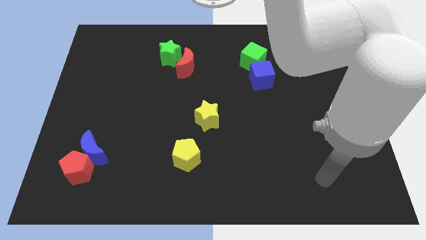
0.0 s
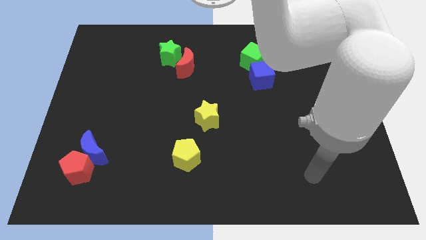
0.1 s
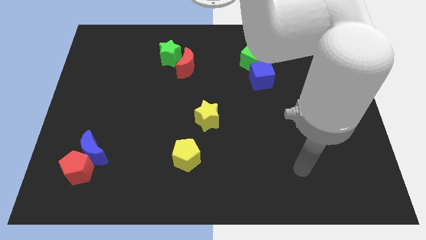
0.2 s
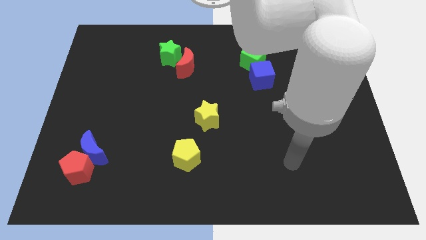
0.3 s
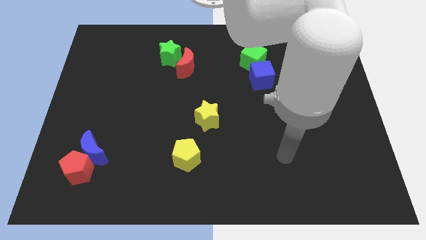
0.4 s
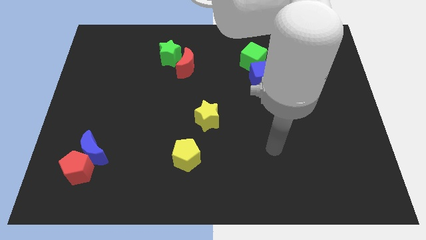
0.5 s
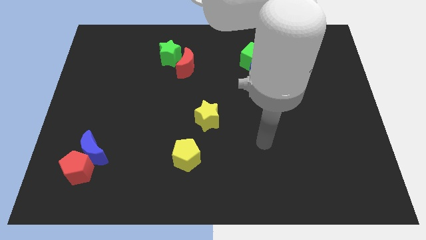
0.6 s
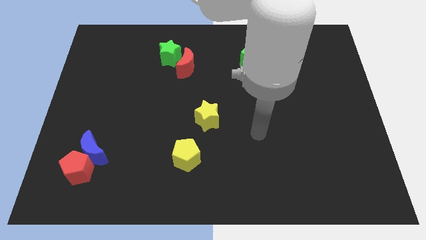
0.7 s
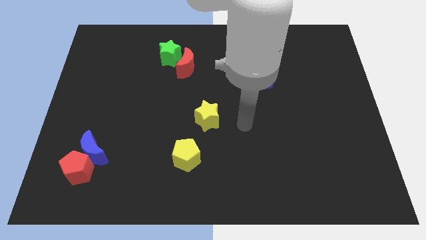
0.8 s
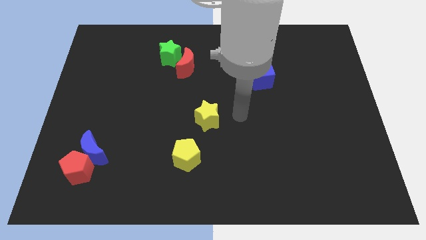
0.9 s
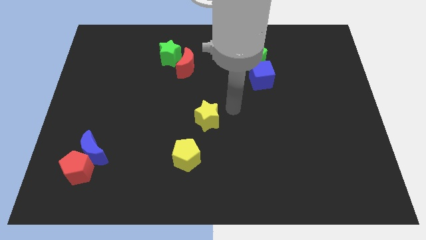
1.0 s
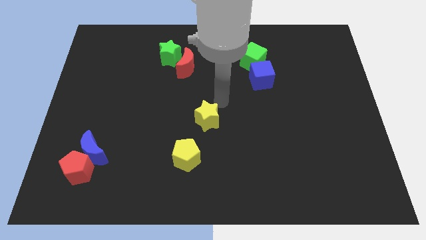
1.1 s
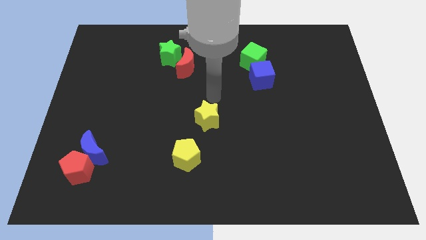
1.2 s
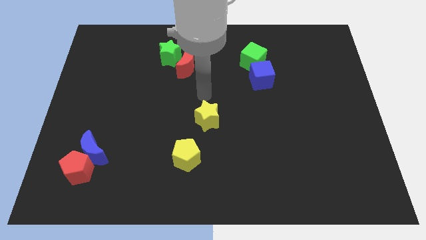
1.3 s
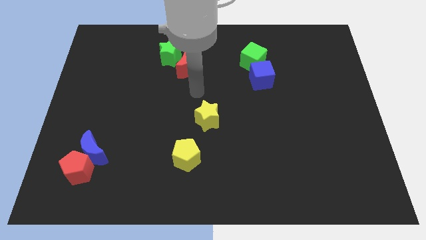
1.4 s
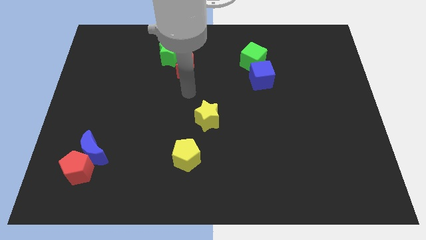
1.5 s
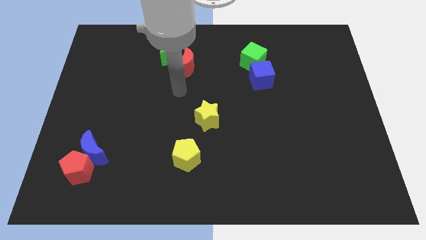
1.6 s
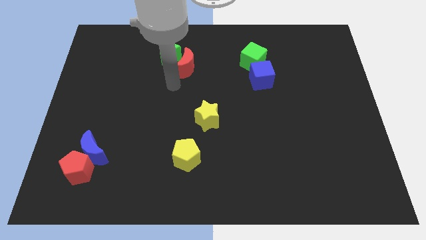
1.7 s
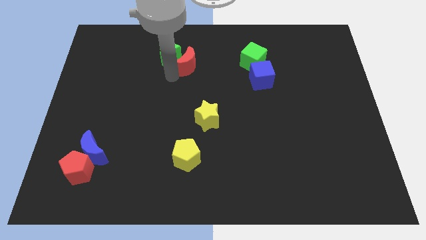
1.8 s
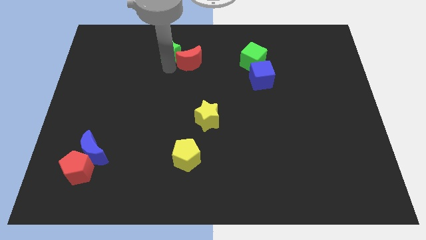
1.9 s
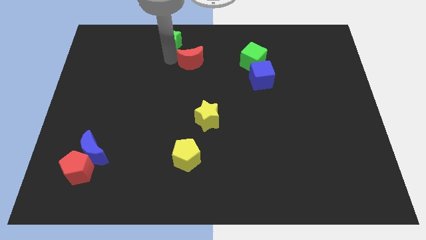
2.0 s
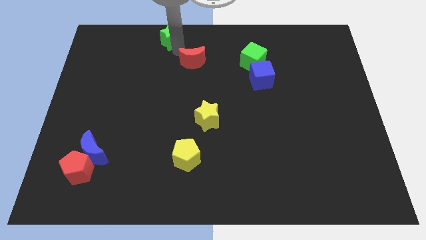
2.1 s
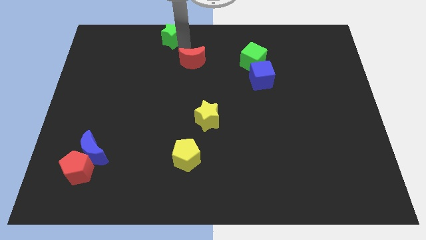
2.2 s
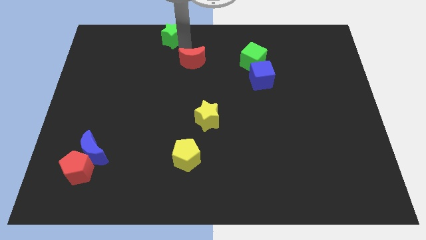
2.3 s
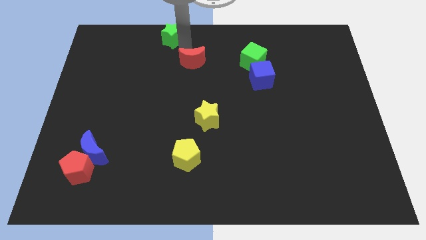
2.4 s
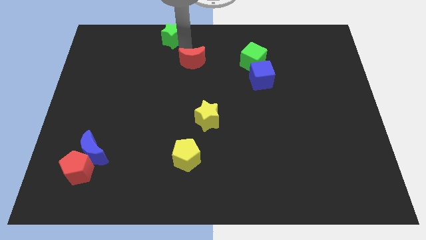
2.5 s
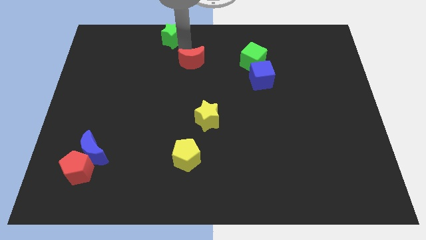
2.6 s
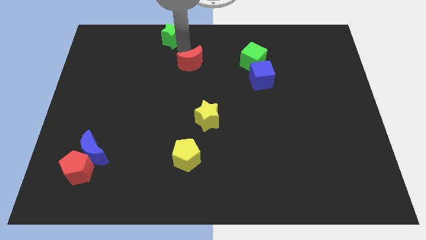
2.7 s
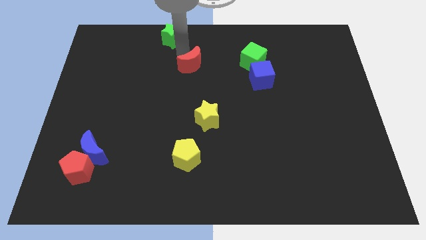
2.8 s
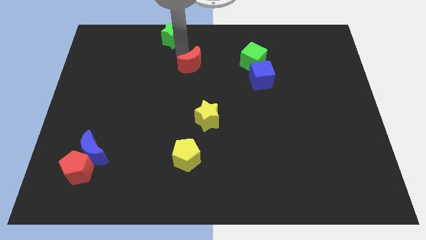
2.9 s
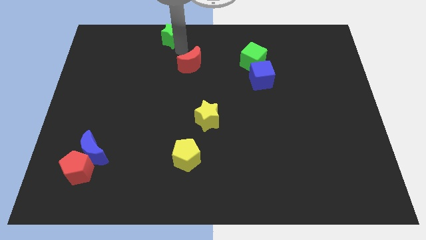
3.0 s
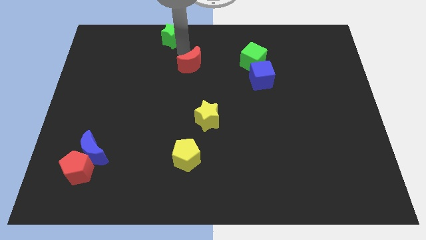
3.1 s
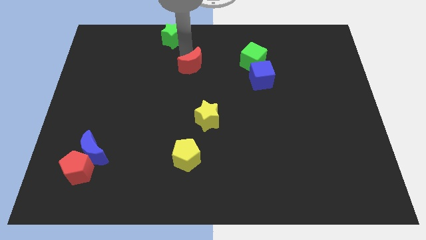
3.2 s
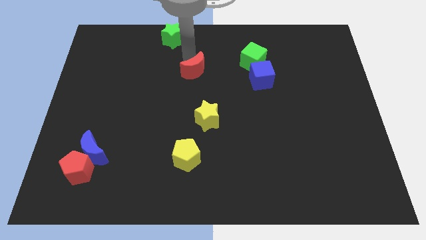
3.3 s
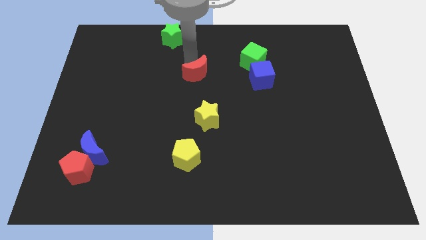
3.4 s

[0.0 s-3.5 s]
slide the red moon just left of the blue cube

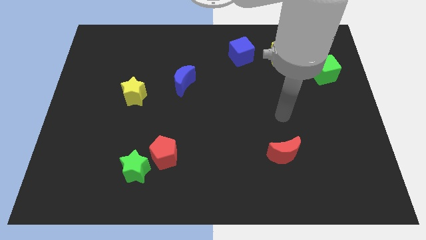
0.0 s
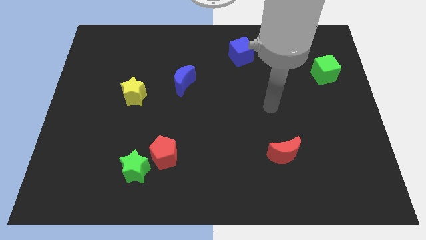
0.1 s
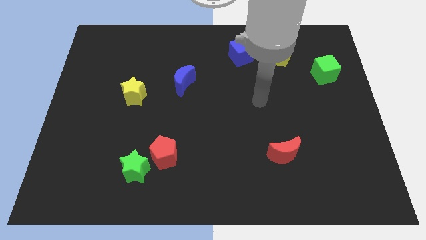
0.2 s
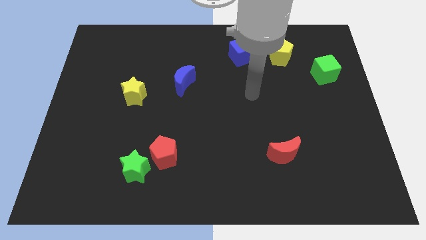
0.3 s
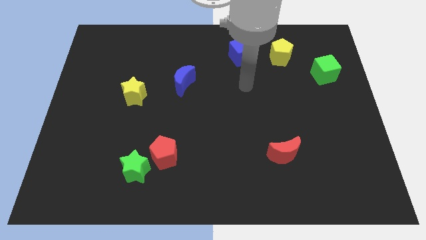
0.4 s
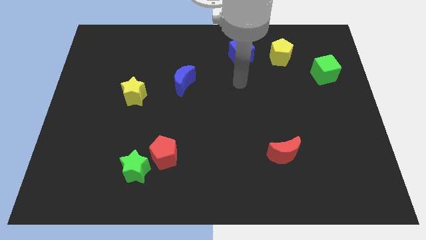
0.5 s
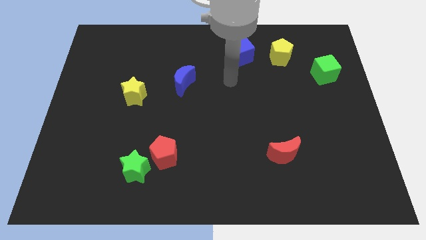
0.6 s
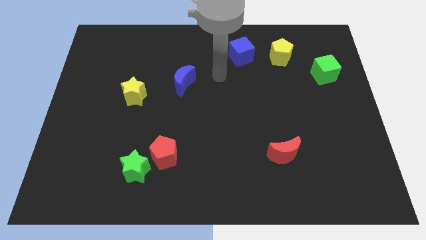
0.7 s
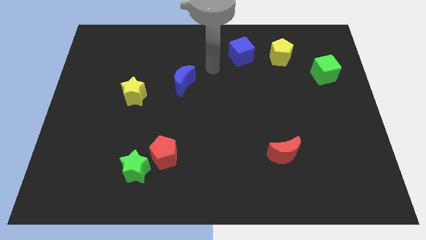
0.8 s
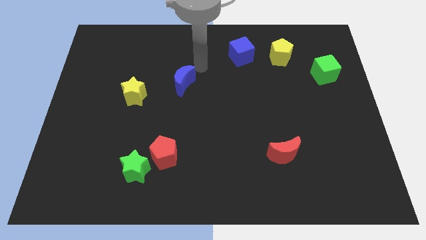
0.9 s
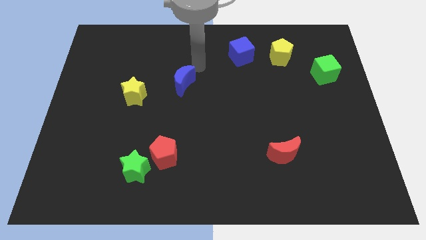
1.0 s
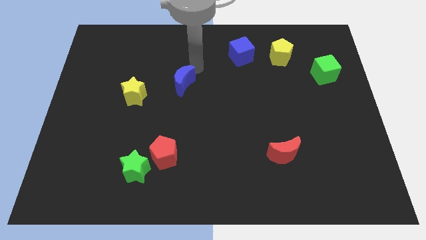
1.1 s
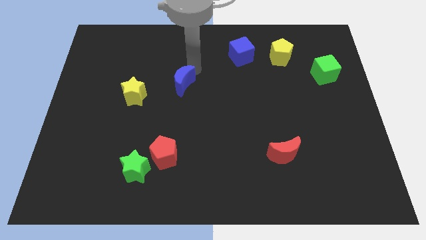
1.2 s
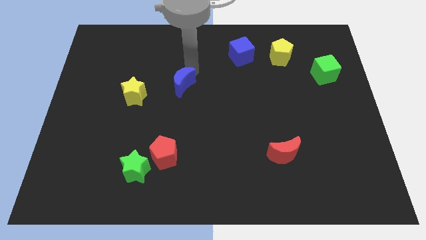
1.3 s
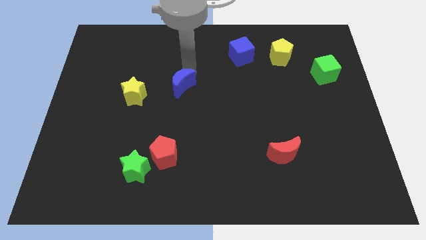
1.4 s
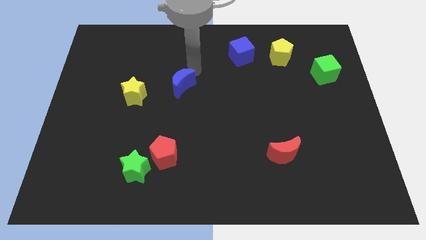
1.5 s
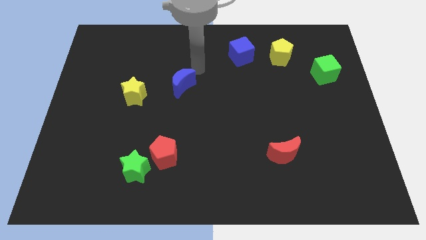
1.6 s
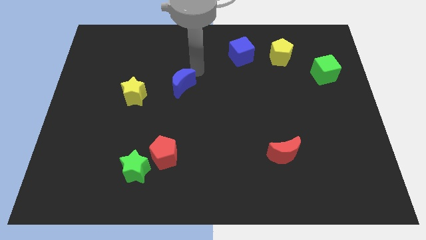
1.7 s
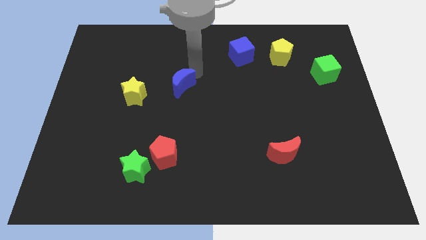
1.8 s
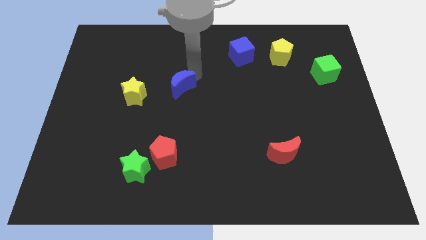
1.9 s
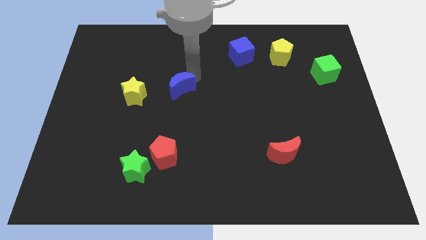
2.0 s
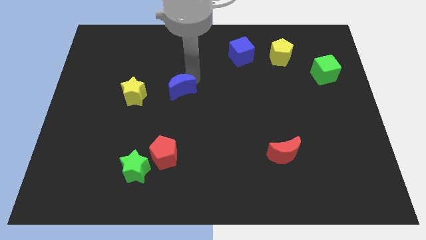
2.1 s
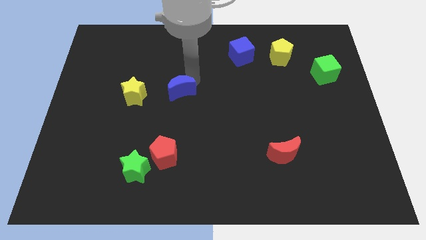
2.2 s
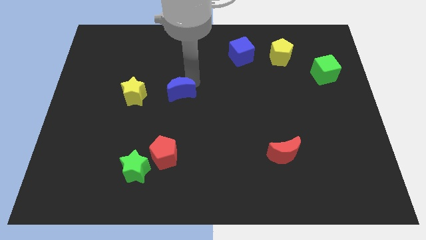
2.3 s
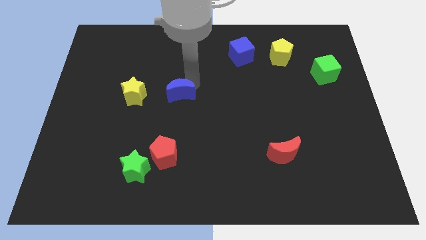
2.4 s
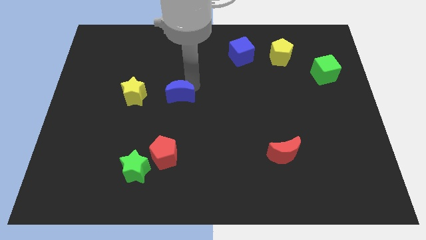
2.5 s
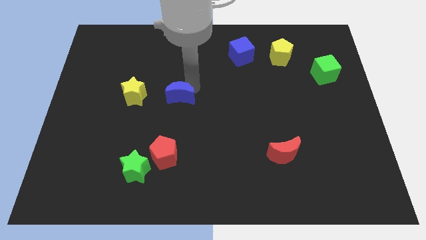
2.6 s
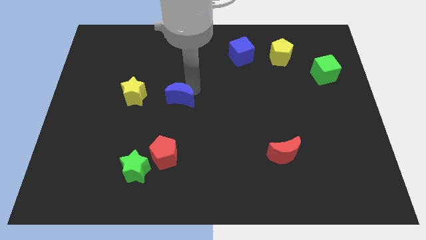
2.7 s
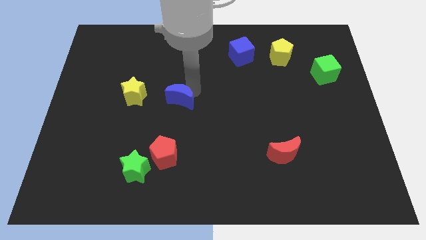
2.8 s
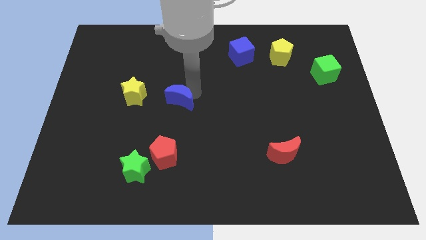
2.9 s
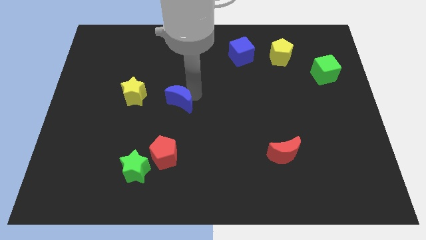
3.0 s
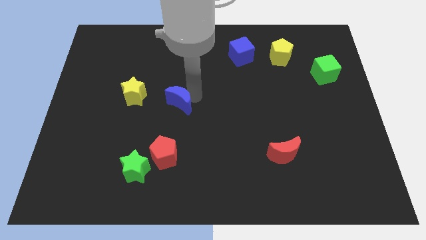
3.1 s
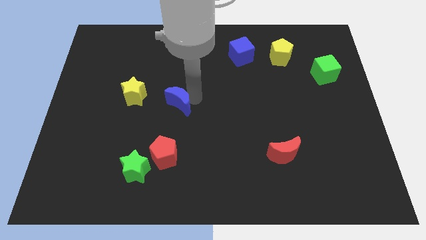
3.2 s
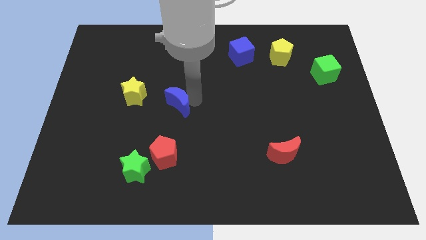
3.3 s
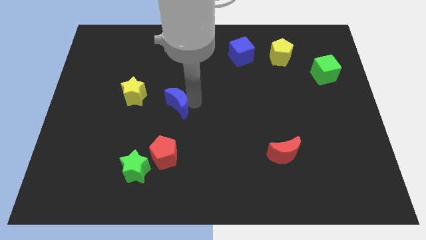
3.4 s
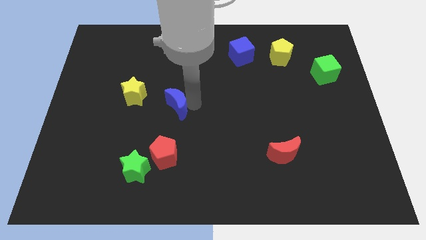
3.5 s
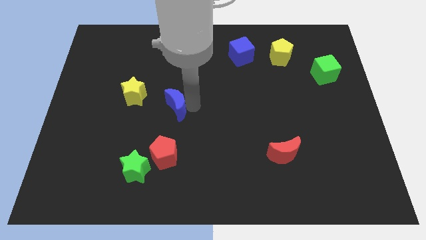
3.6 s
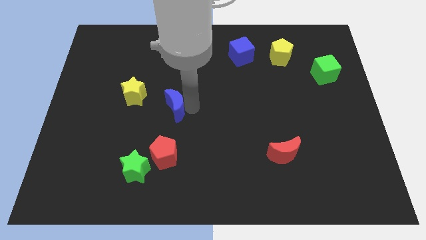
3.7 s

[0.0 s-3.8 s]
put the blue moon diagonally down and to the right of the yellow star

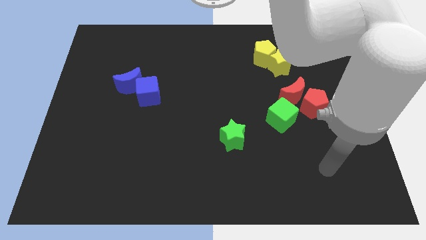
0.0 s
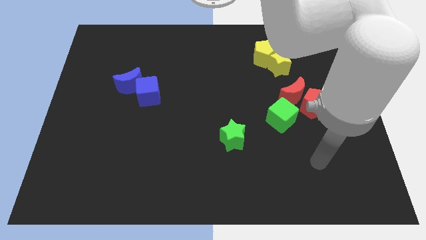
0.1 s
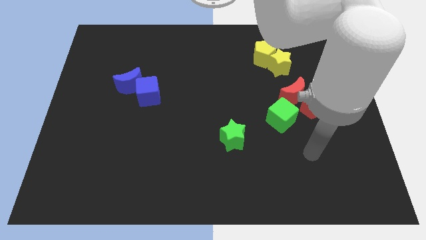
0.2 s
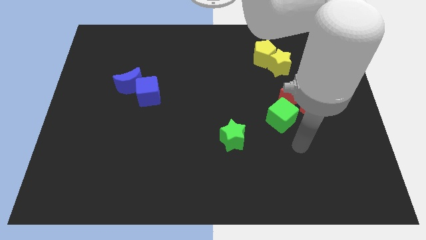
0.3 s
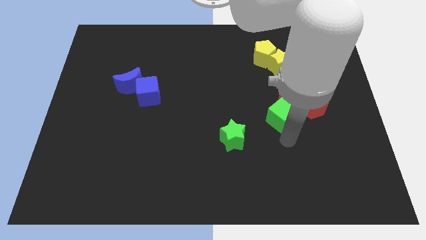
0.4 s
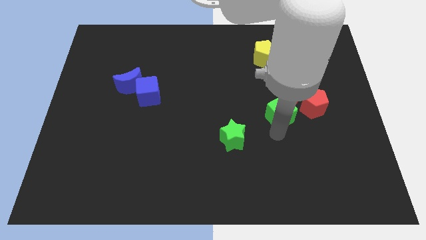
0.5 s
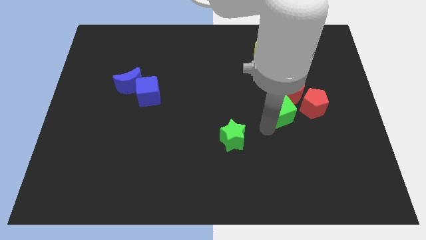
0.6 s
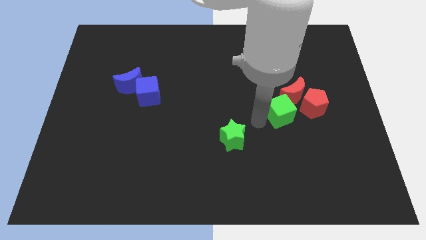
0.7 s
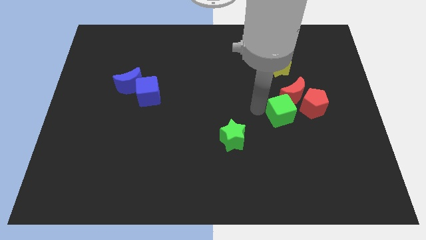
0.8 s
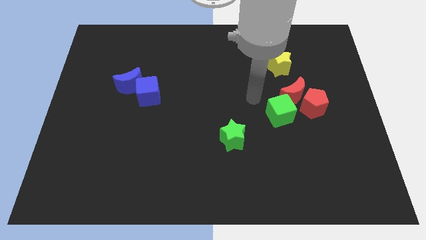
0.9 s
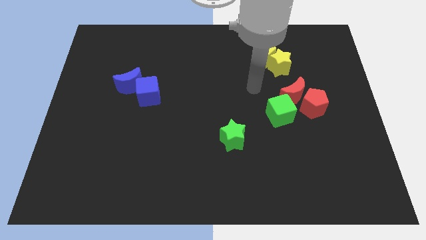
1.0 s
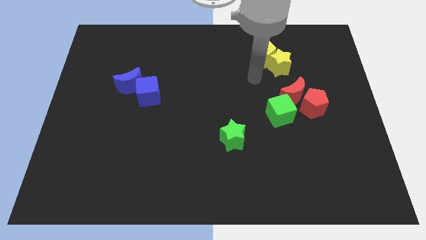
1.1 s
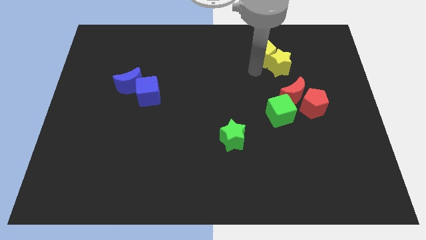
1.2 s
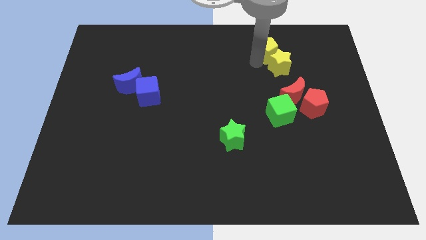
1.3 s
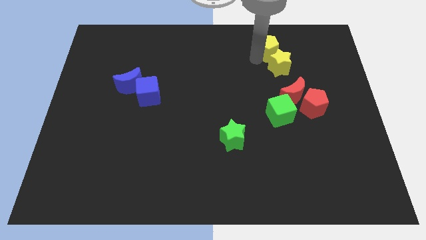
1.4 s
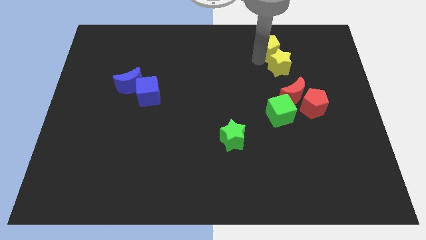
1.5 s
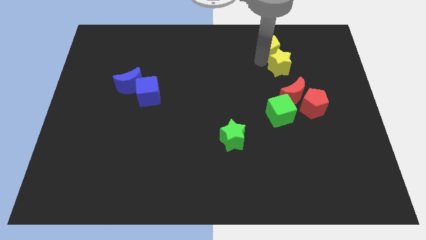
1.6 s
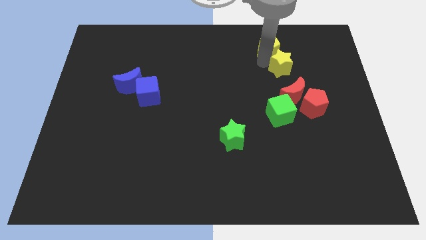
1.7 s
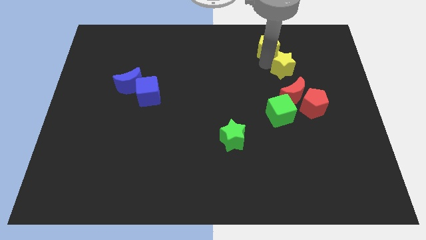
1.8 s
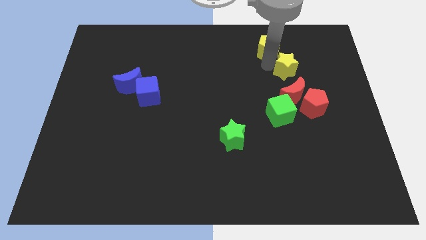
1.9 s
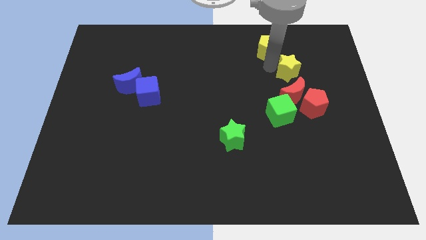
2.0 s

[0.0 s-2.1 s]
push the yellow star to the top side of the red pentagon
